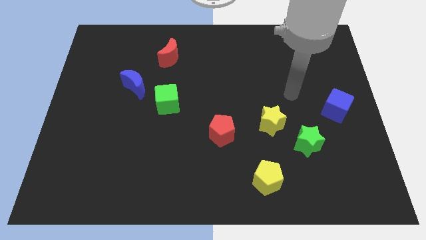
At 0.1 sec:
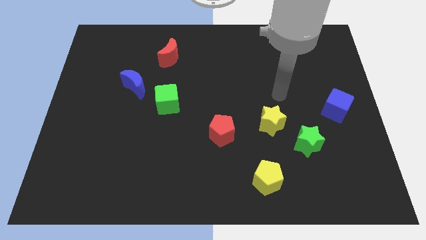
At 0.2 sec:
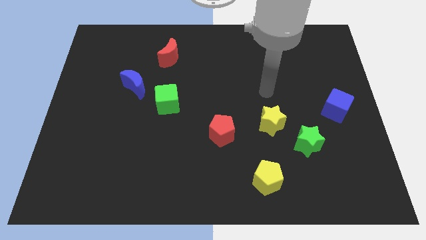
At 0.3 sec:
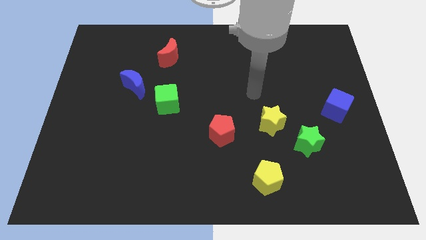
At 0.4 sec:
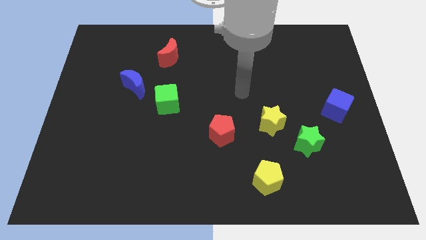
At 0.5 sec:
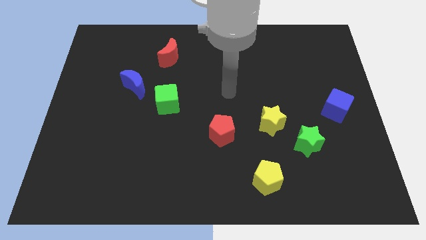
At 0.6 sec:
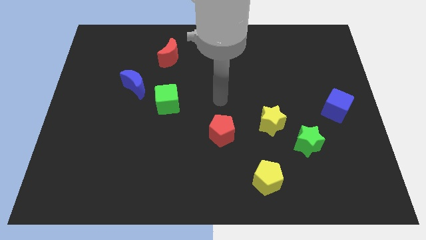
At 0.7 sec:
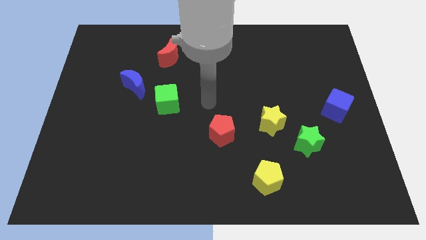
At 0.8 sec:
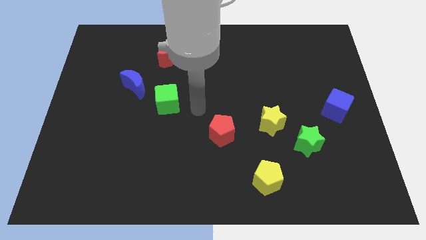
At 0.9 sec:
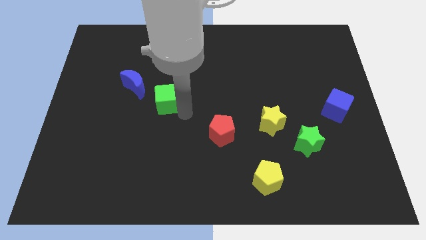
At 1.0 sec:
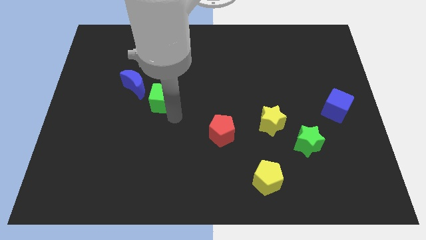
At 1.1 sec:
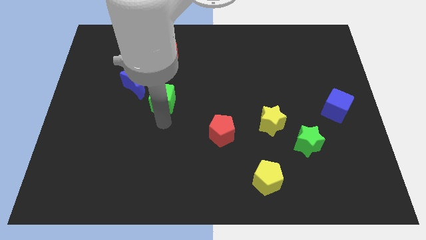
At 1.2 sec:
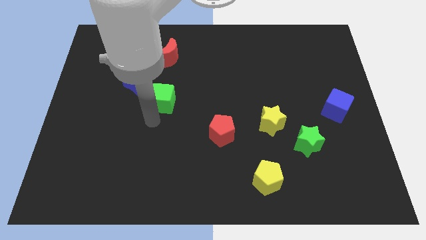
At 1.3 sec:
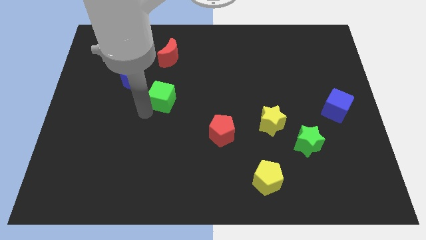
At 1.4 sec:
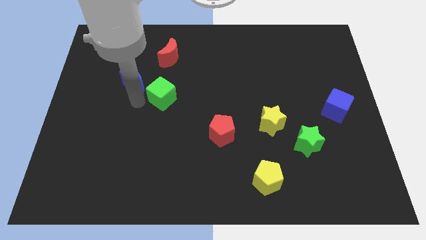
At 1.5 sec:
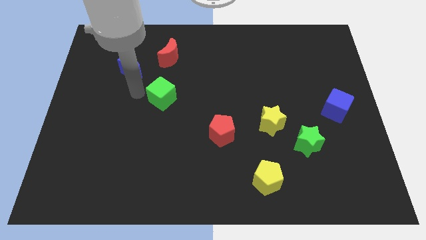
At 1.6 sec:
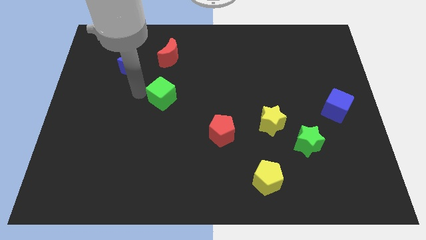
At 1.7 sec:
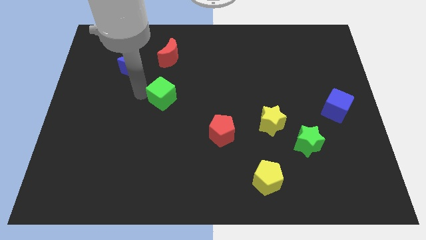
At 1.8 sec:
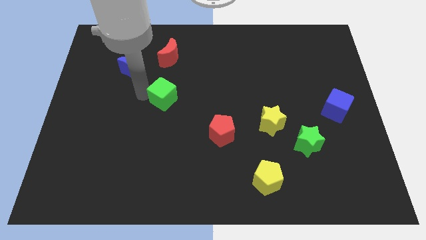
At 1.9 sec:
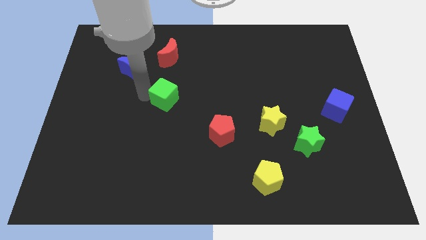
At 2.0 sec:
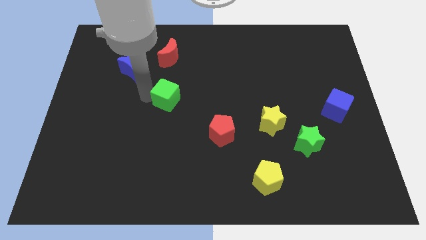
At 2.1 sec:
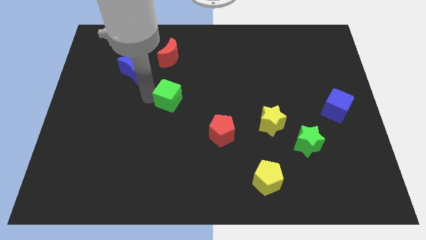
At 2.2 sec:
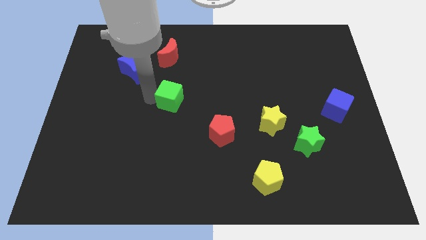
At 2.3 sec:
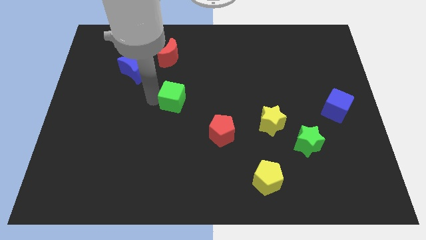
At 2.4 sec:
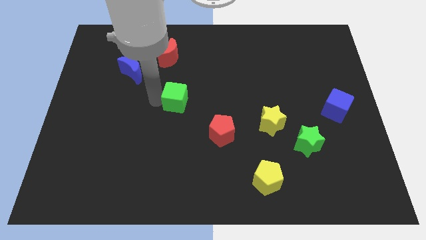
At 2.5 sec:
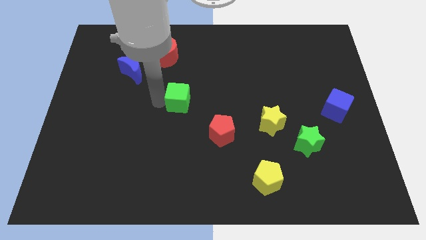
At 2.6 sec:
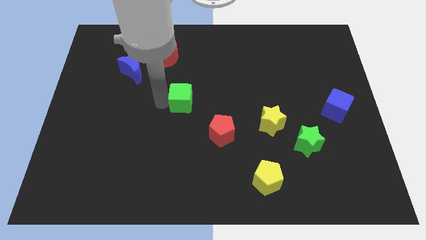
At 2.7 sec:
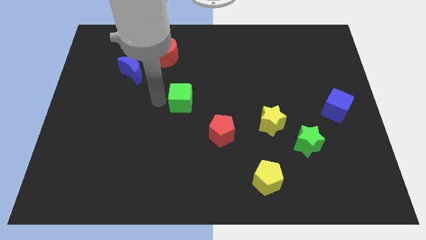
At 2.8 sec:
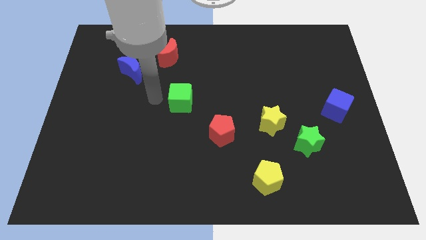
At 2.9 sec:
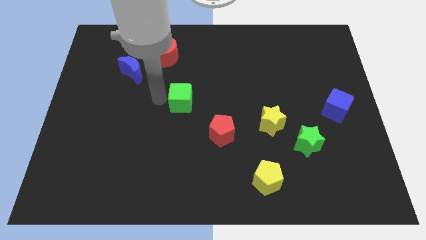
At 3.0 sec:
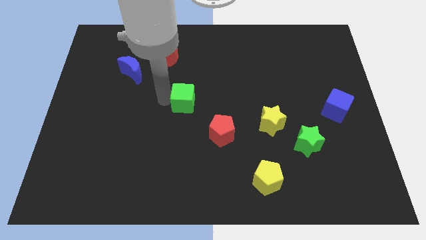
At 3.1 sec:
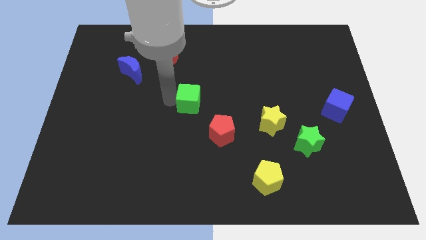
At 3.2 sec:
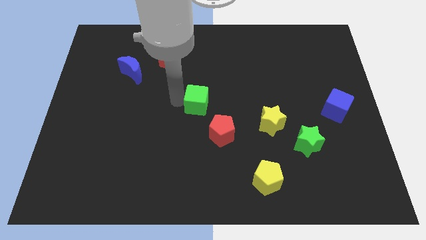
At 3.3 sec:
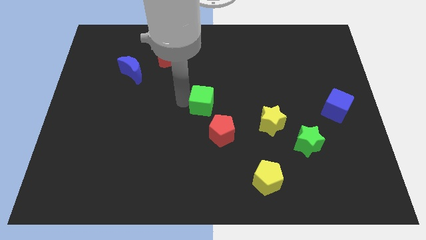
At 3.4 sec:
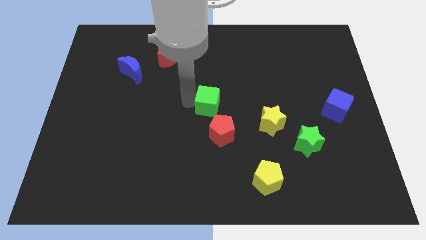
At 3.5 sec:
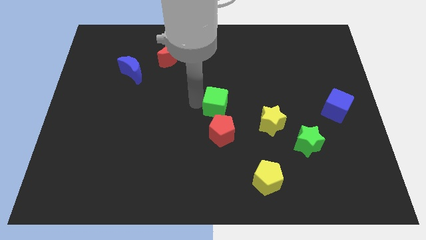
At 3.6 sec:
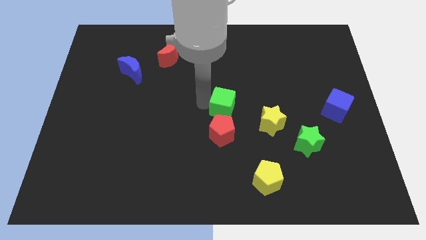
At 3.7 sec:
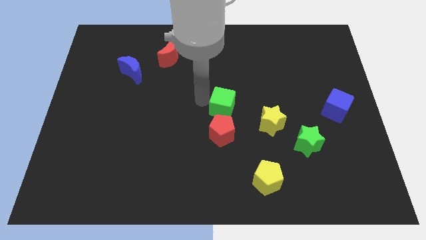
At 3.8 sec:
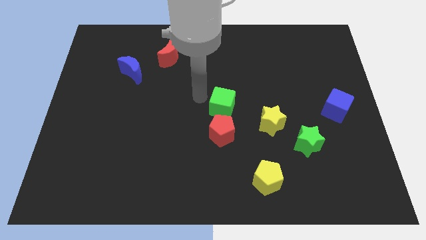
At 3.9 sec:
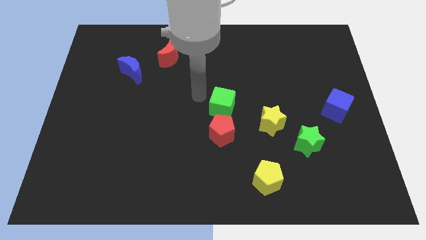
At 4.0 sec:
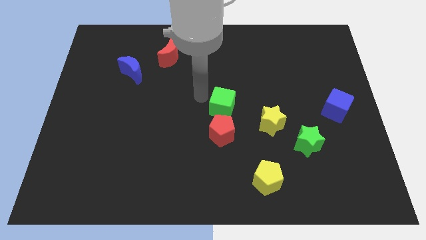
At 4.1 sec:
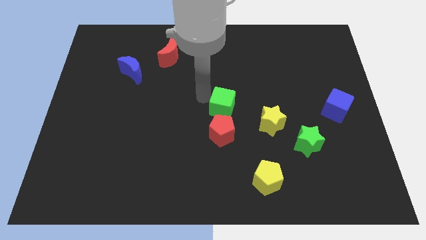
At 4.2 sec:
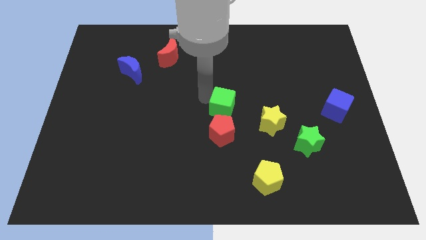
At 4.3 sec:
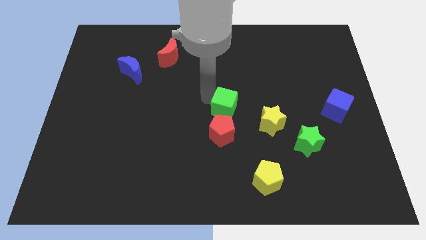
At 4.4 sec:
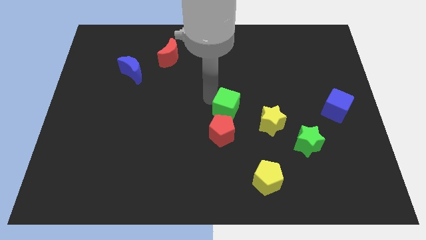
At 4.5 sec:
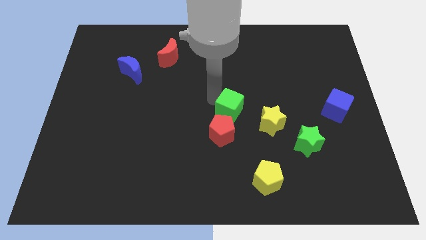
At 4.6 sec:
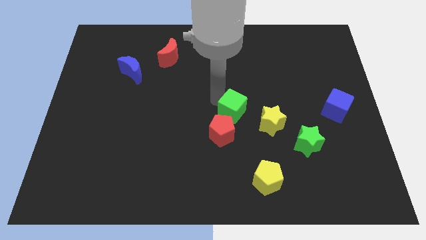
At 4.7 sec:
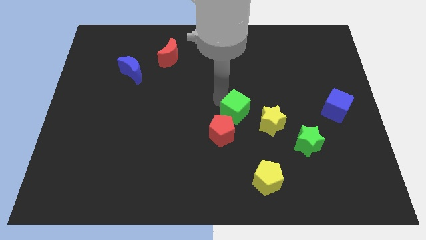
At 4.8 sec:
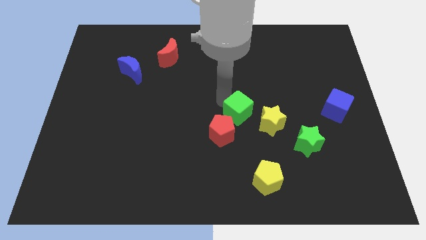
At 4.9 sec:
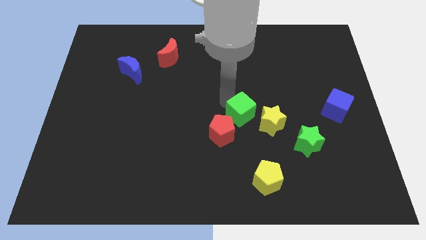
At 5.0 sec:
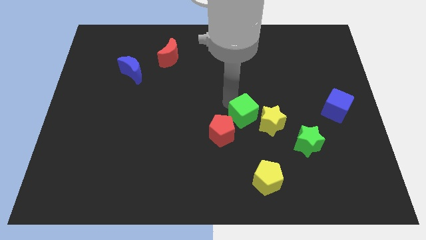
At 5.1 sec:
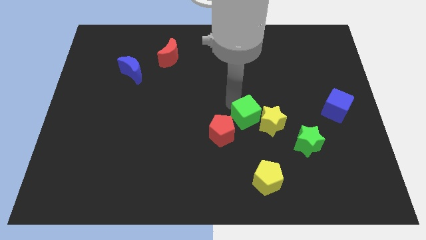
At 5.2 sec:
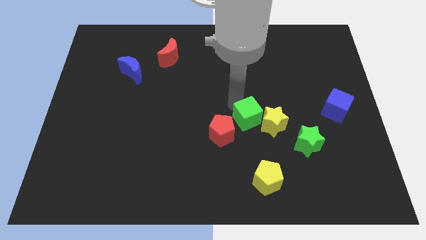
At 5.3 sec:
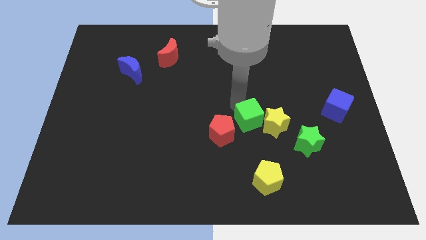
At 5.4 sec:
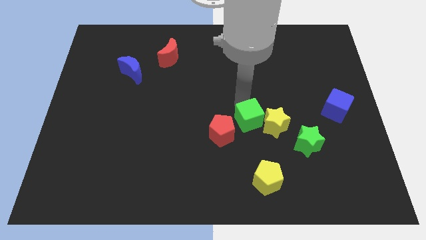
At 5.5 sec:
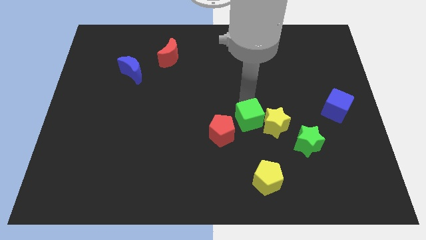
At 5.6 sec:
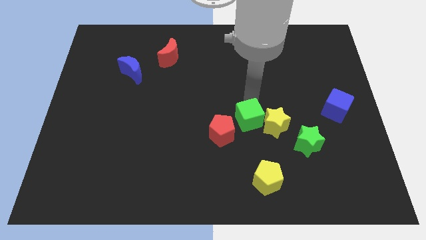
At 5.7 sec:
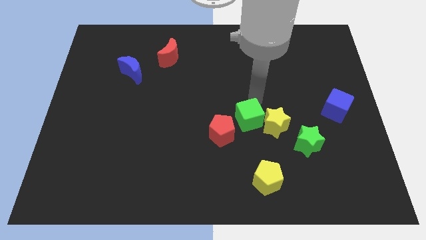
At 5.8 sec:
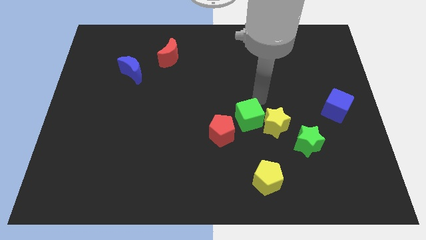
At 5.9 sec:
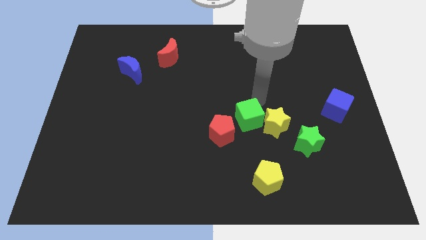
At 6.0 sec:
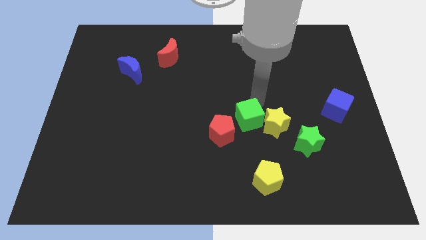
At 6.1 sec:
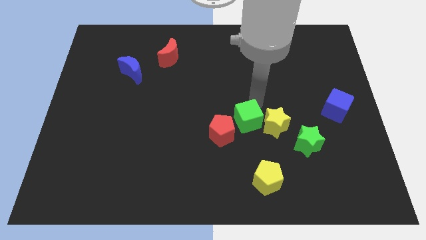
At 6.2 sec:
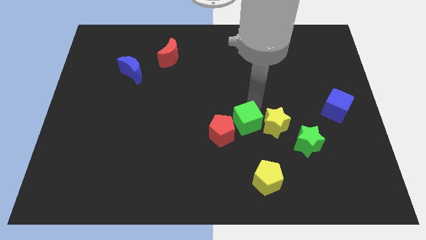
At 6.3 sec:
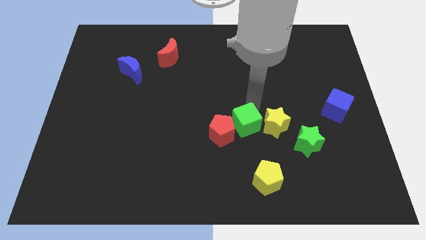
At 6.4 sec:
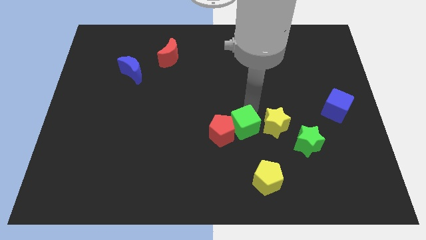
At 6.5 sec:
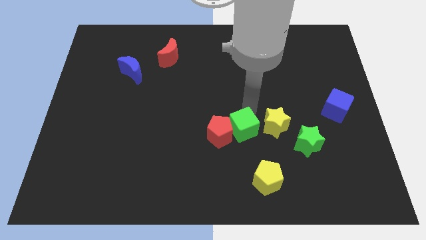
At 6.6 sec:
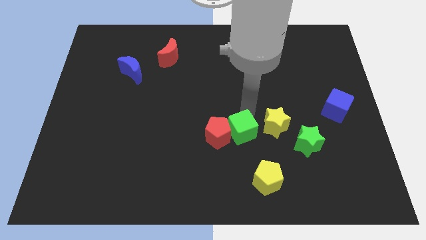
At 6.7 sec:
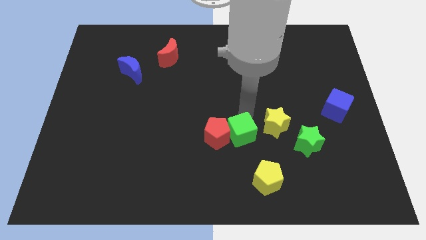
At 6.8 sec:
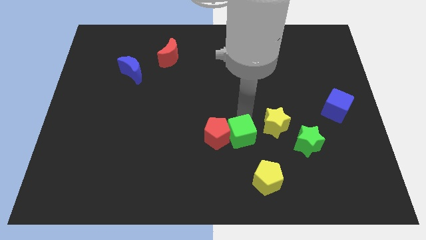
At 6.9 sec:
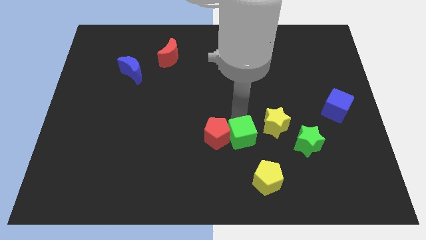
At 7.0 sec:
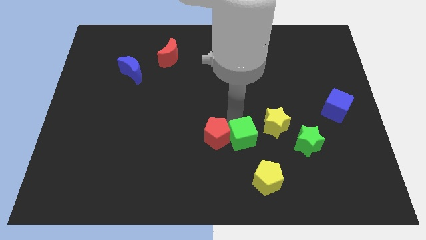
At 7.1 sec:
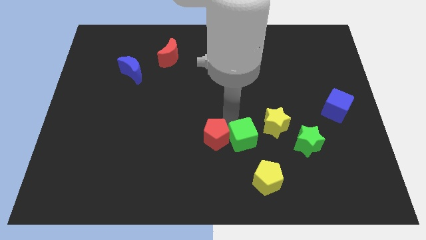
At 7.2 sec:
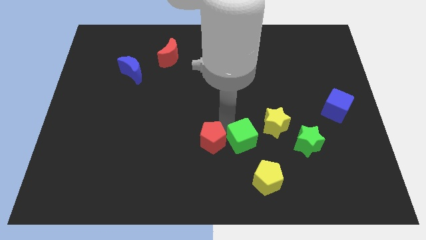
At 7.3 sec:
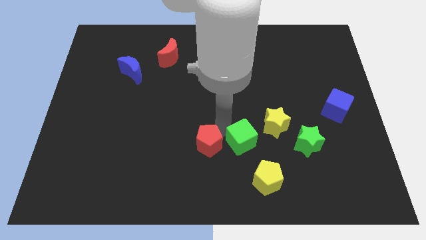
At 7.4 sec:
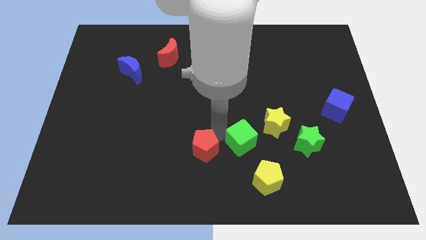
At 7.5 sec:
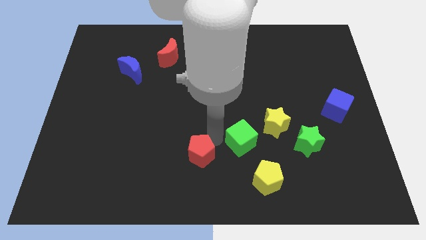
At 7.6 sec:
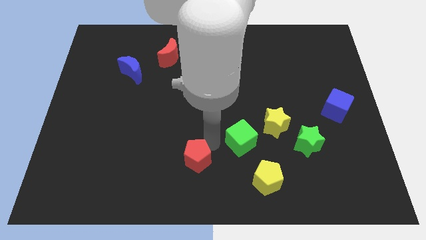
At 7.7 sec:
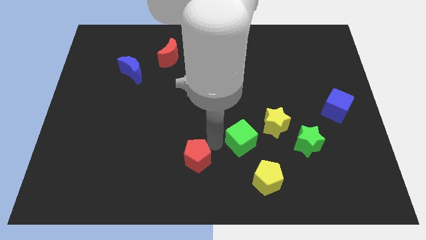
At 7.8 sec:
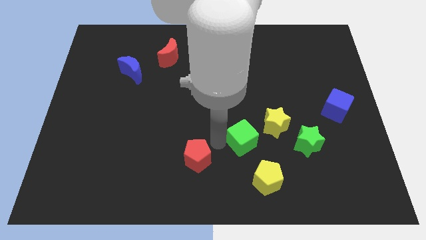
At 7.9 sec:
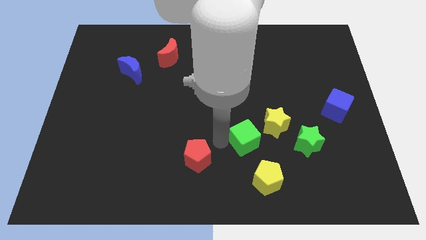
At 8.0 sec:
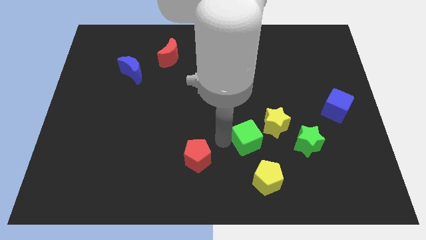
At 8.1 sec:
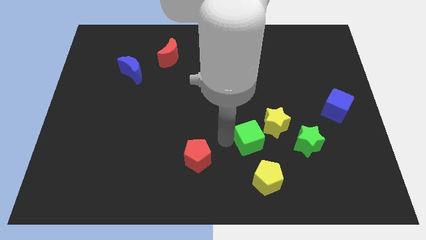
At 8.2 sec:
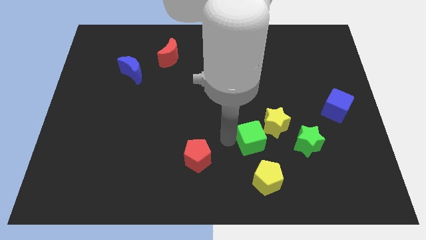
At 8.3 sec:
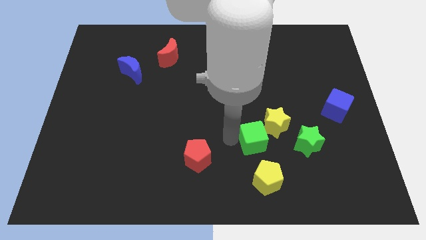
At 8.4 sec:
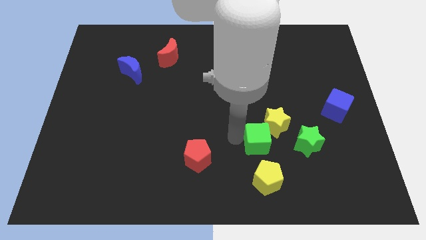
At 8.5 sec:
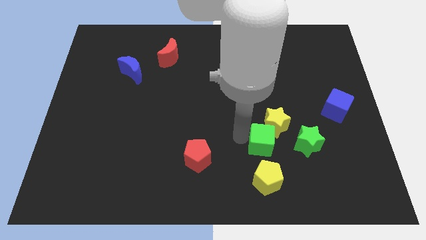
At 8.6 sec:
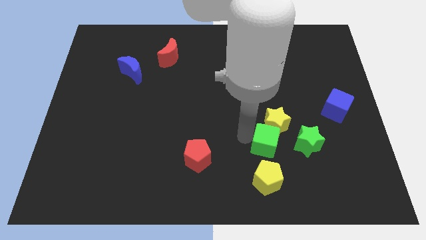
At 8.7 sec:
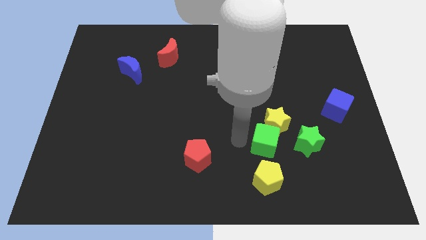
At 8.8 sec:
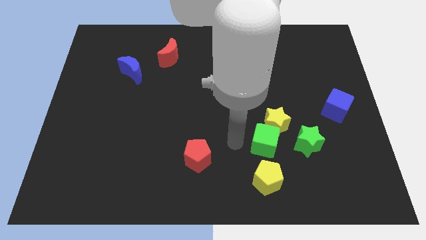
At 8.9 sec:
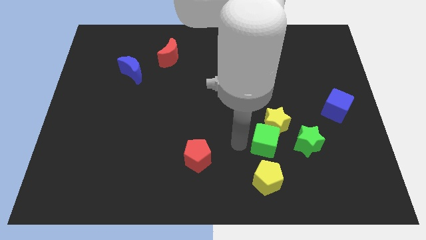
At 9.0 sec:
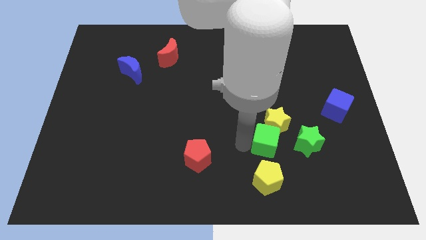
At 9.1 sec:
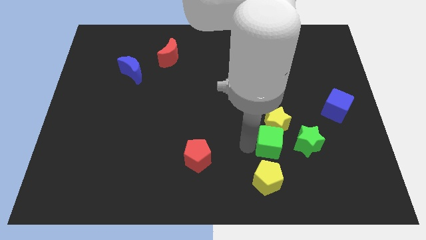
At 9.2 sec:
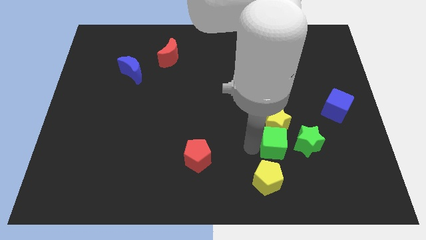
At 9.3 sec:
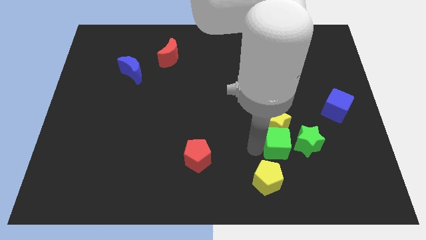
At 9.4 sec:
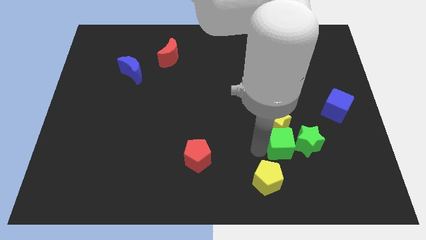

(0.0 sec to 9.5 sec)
slide the green cube next to the green star
